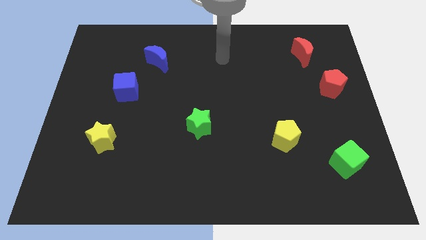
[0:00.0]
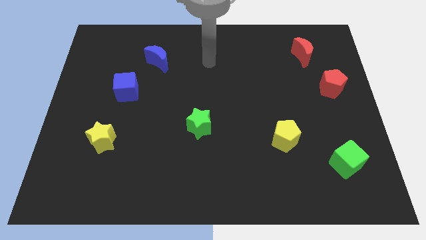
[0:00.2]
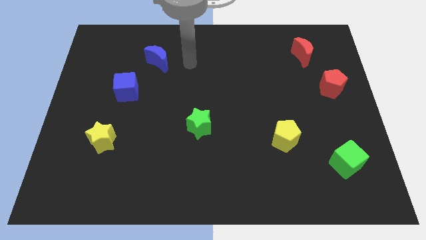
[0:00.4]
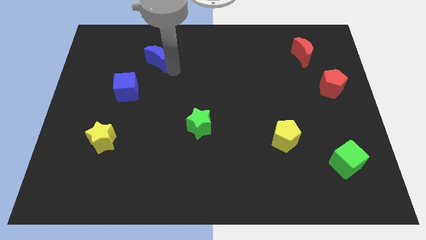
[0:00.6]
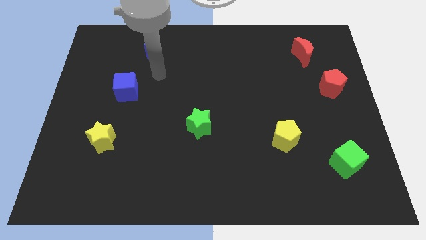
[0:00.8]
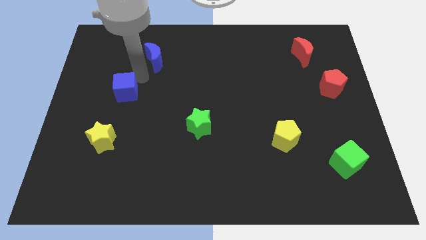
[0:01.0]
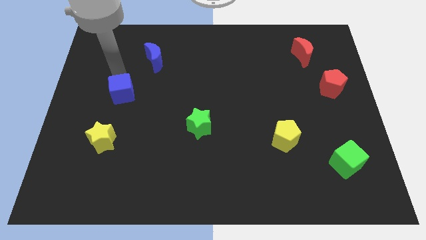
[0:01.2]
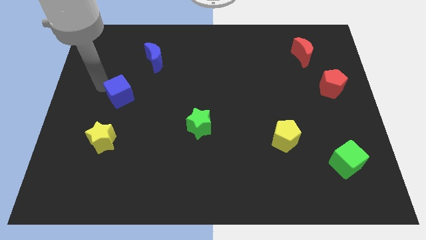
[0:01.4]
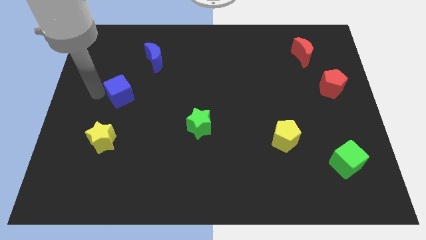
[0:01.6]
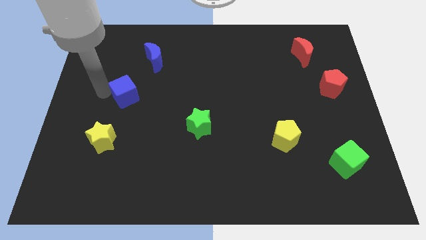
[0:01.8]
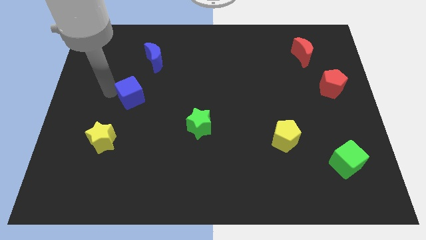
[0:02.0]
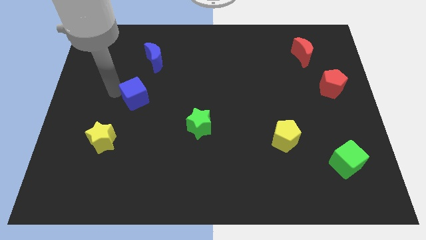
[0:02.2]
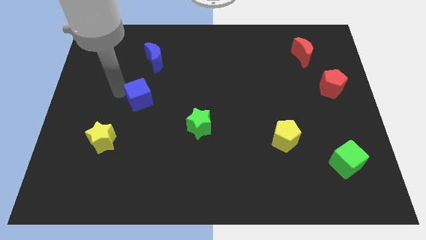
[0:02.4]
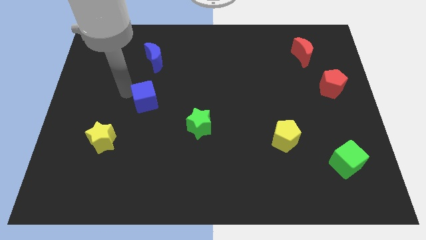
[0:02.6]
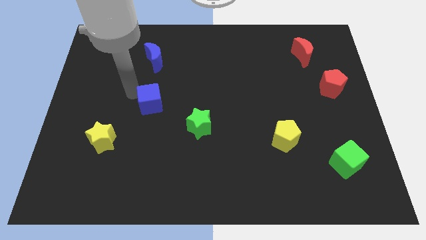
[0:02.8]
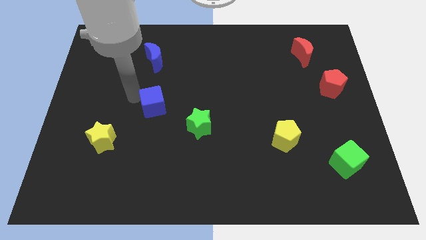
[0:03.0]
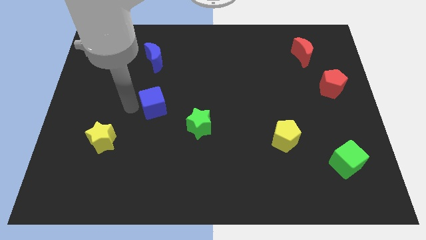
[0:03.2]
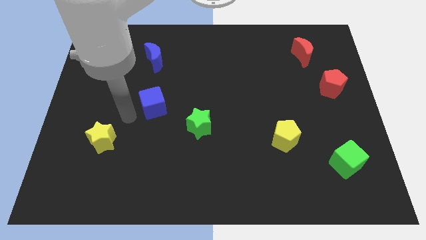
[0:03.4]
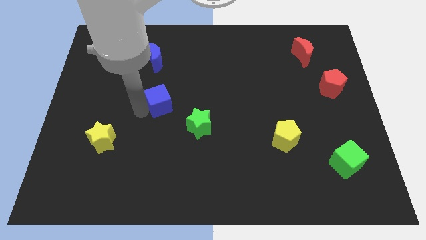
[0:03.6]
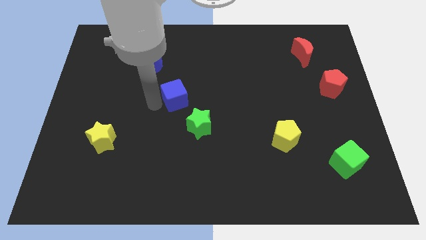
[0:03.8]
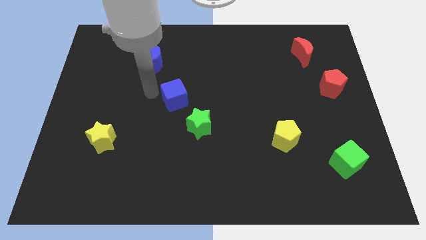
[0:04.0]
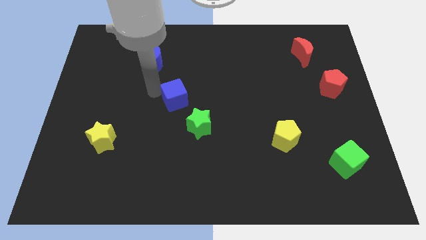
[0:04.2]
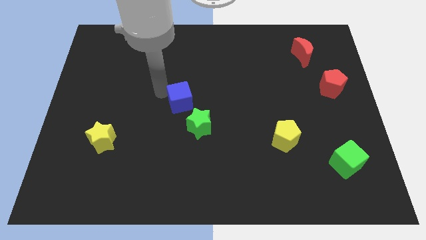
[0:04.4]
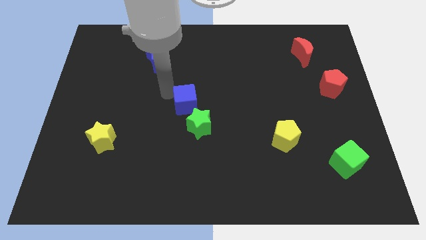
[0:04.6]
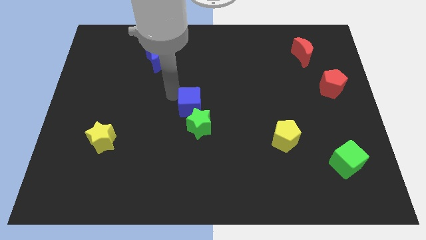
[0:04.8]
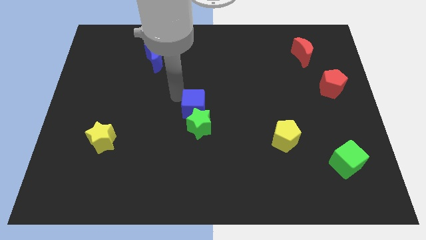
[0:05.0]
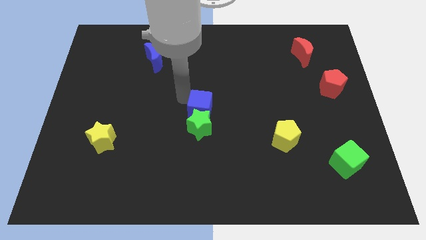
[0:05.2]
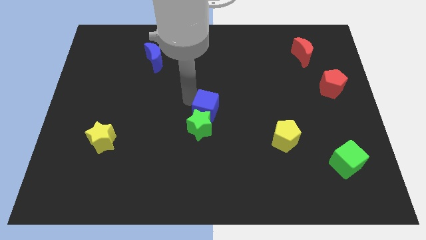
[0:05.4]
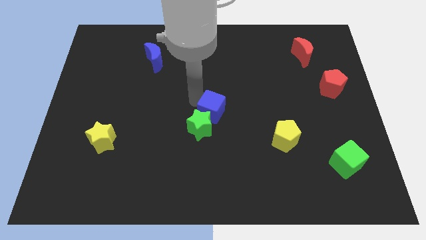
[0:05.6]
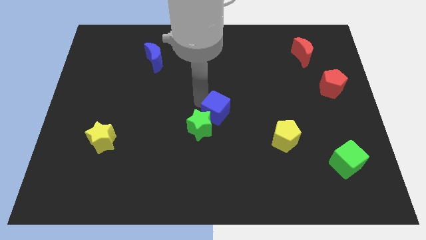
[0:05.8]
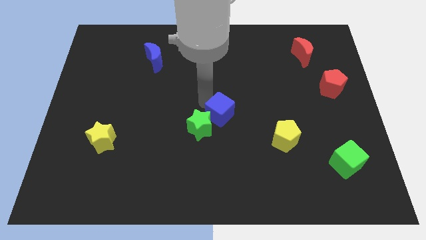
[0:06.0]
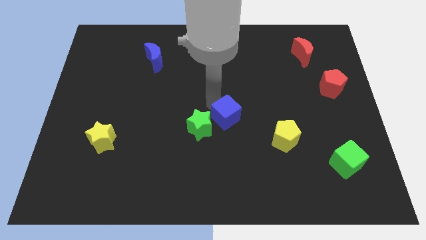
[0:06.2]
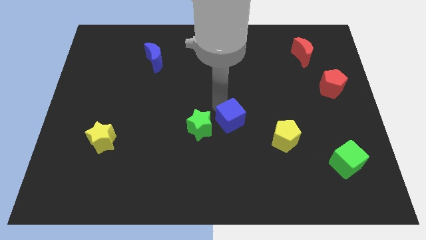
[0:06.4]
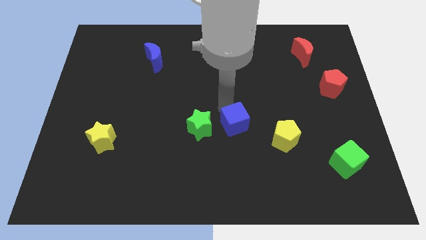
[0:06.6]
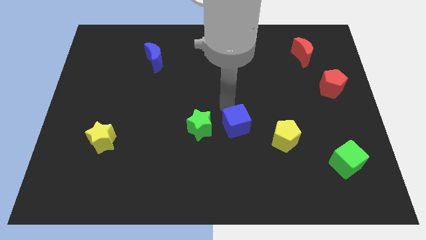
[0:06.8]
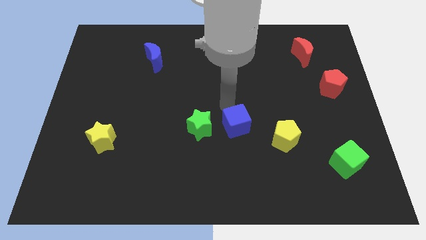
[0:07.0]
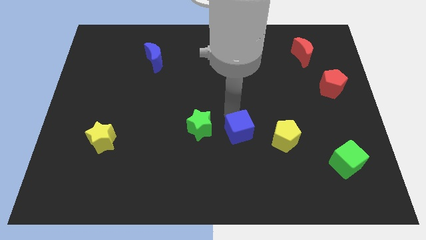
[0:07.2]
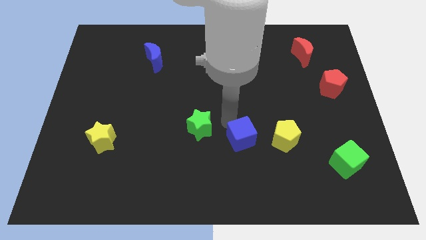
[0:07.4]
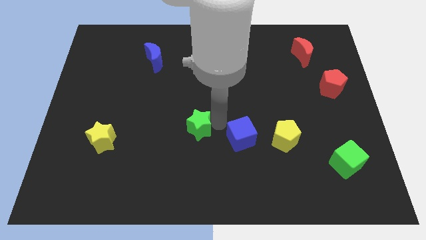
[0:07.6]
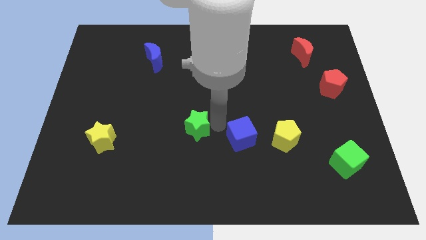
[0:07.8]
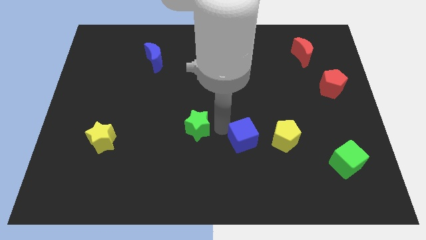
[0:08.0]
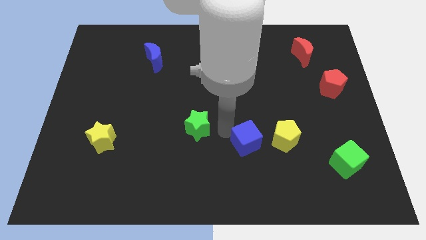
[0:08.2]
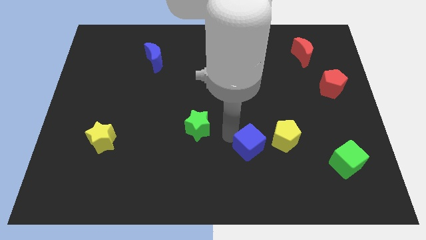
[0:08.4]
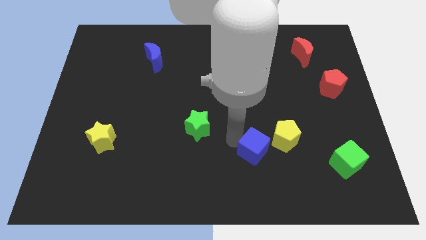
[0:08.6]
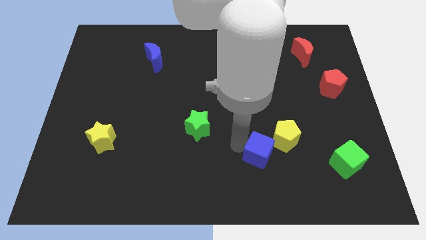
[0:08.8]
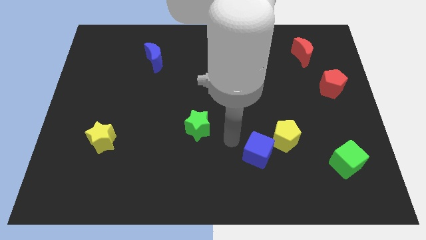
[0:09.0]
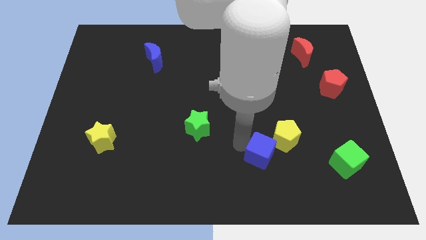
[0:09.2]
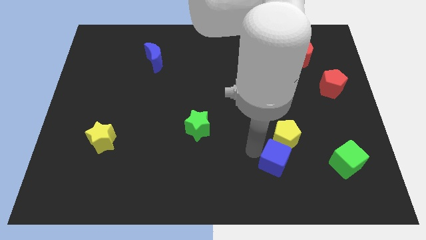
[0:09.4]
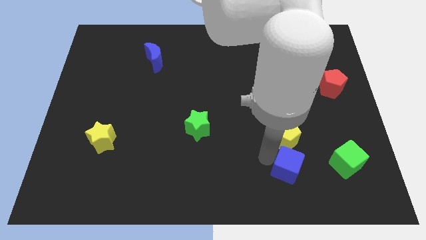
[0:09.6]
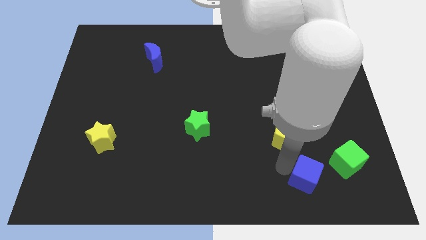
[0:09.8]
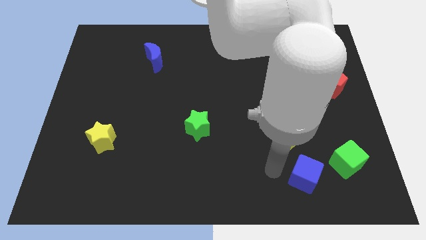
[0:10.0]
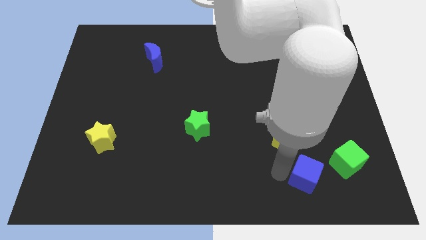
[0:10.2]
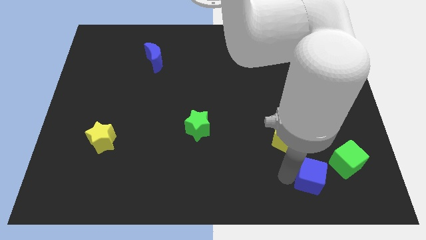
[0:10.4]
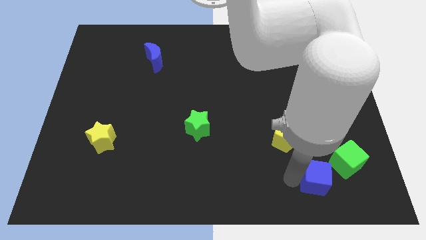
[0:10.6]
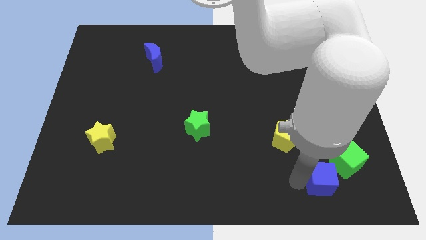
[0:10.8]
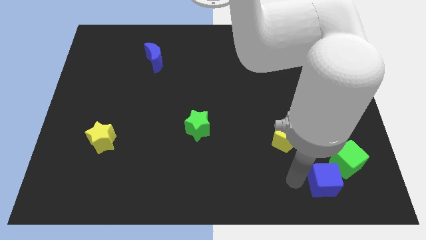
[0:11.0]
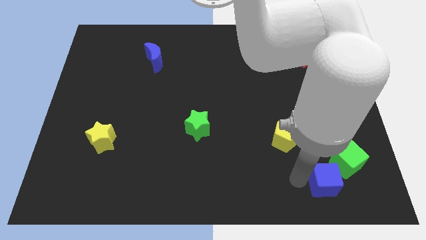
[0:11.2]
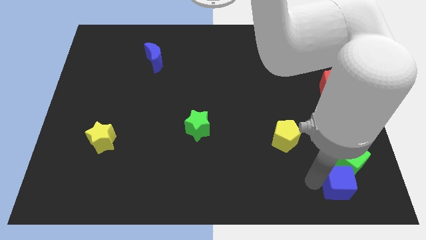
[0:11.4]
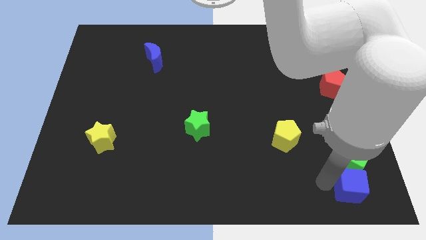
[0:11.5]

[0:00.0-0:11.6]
push the blue cube to the lower right corner

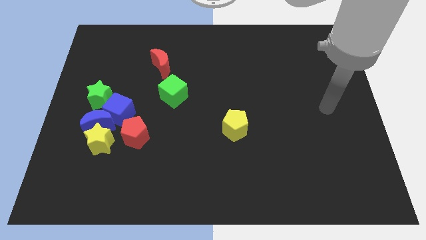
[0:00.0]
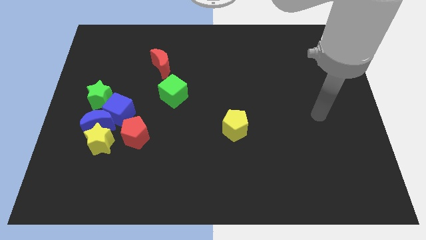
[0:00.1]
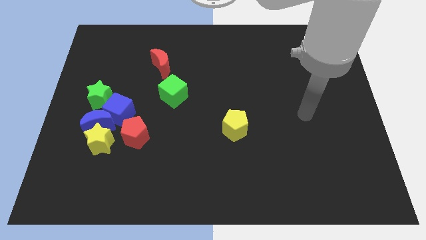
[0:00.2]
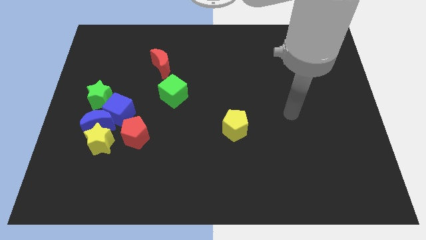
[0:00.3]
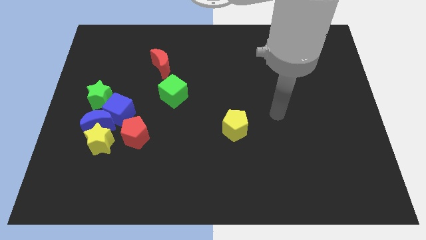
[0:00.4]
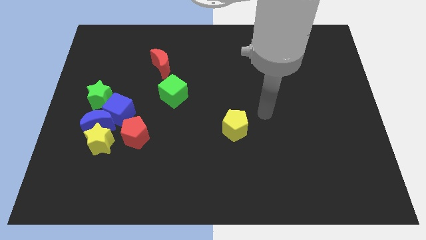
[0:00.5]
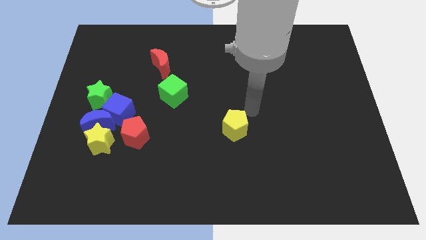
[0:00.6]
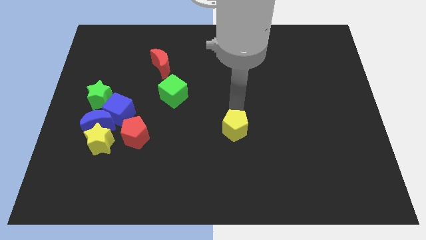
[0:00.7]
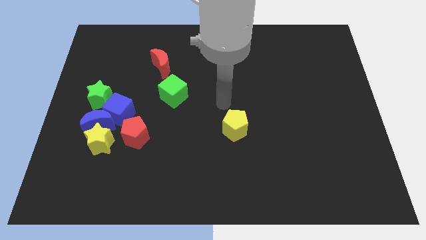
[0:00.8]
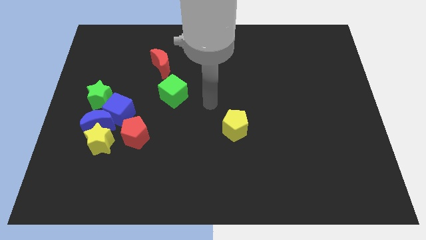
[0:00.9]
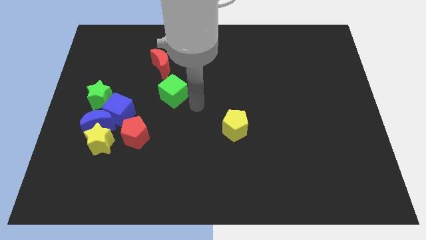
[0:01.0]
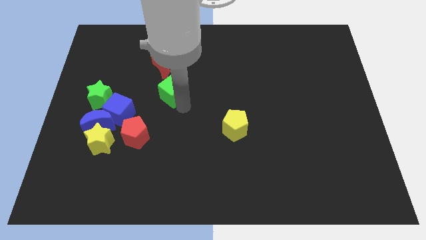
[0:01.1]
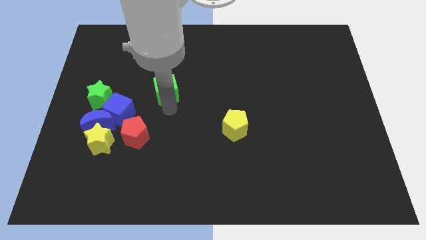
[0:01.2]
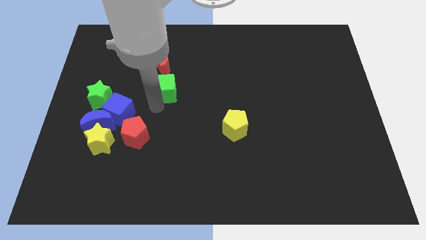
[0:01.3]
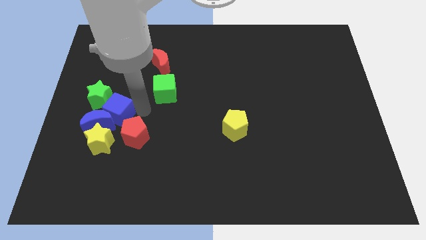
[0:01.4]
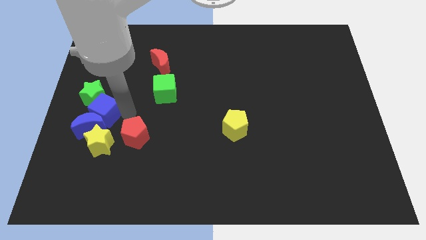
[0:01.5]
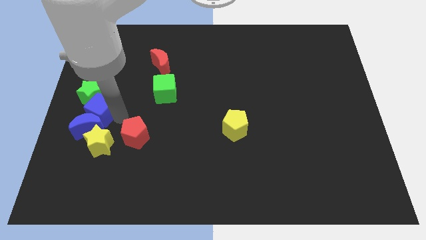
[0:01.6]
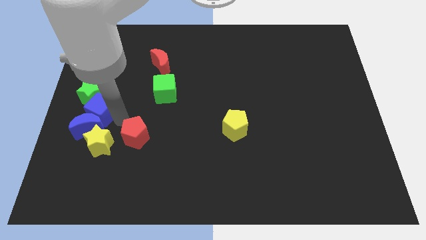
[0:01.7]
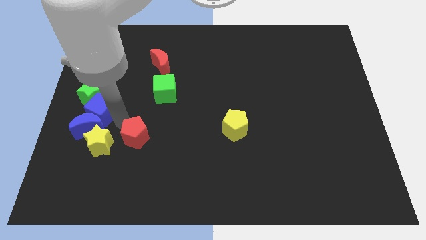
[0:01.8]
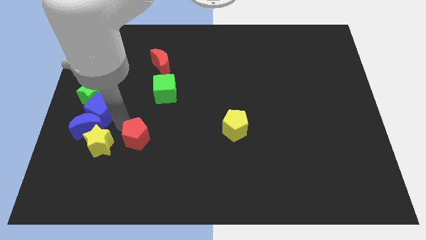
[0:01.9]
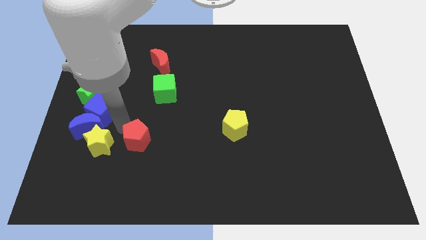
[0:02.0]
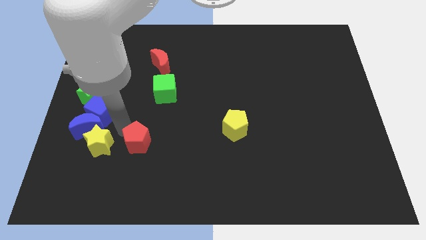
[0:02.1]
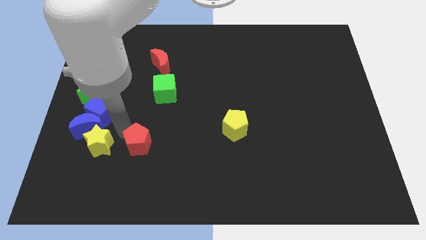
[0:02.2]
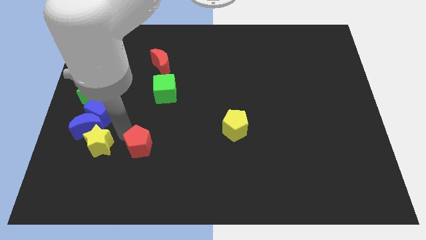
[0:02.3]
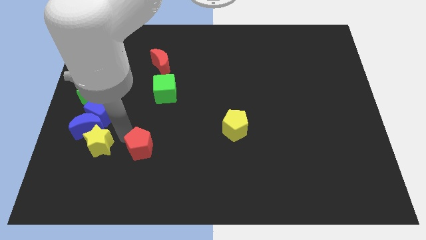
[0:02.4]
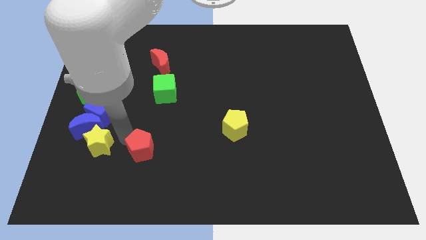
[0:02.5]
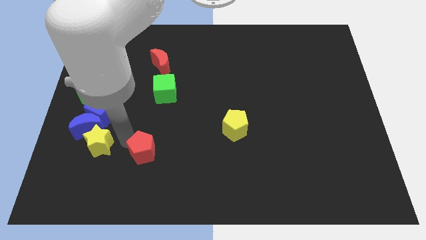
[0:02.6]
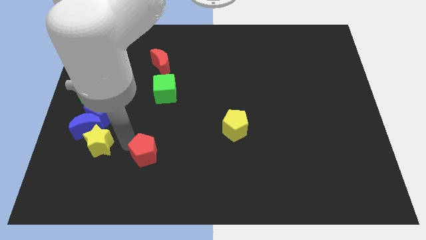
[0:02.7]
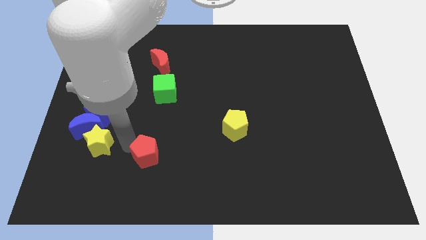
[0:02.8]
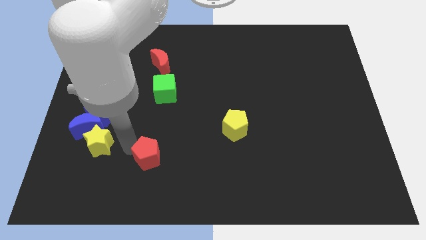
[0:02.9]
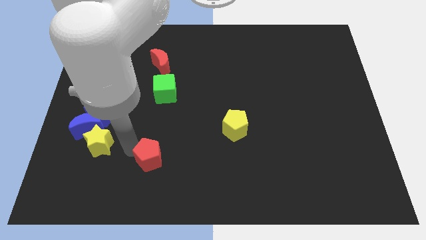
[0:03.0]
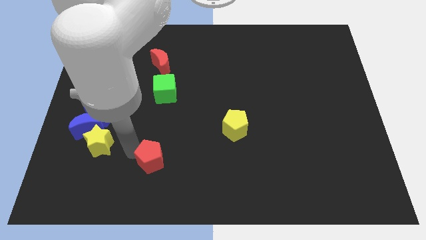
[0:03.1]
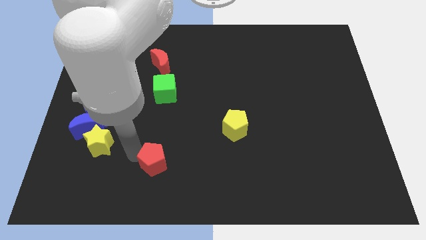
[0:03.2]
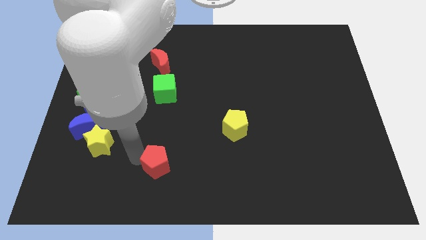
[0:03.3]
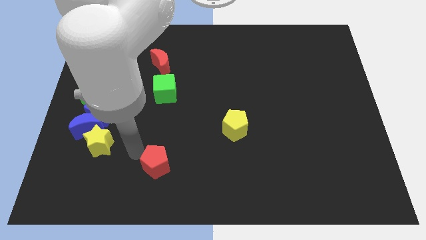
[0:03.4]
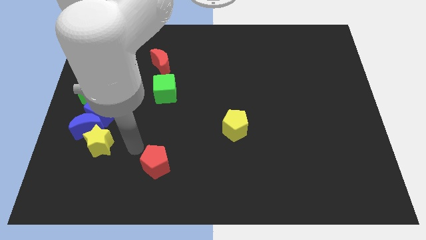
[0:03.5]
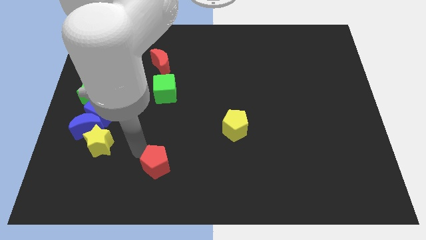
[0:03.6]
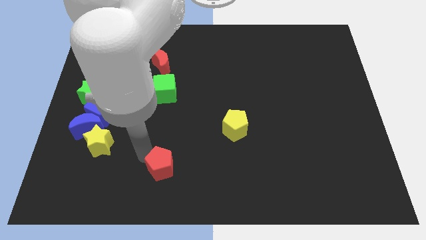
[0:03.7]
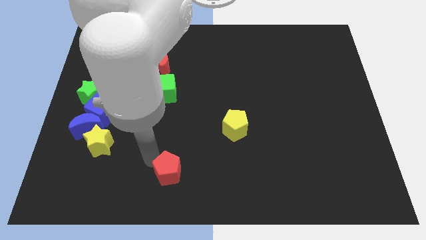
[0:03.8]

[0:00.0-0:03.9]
push the red pentagon to the bottom side
